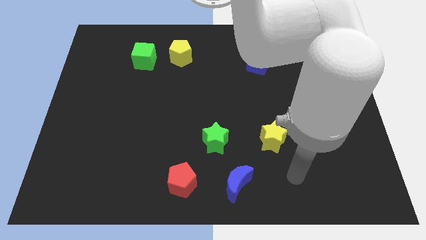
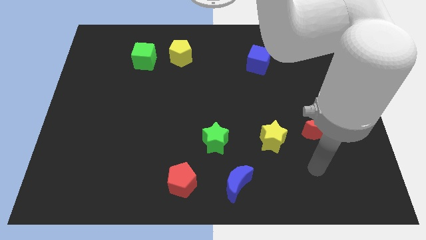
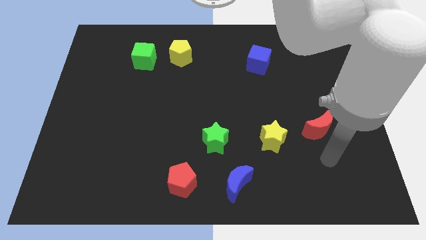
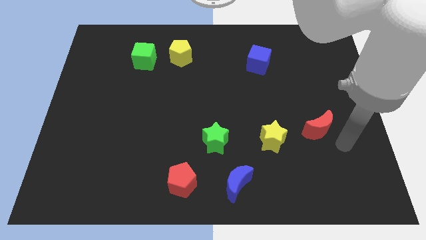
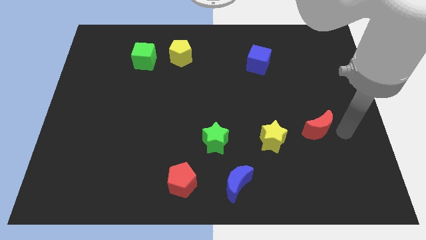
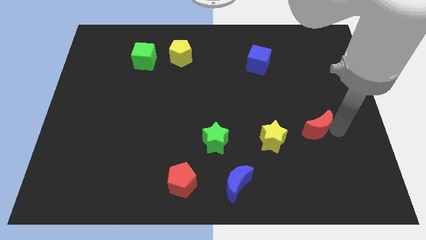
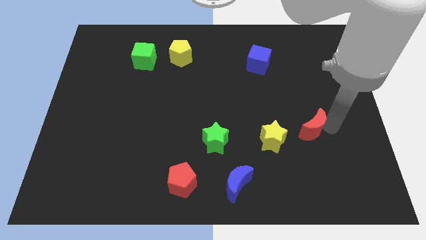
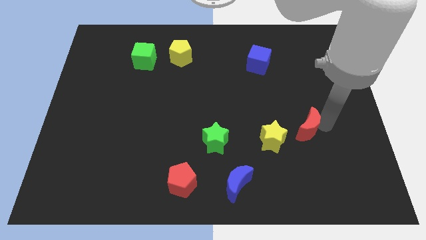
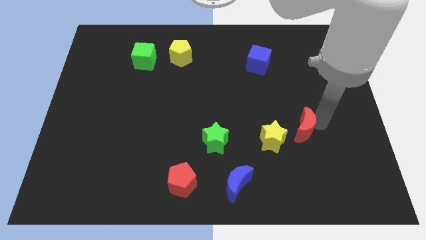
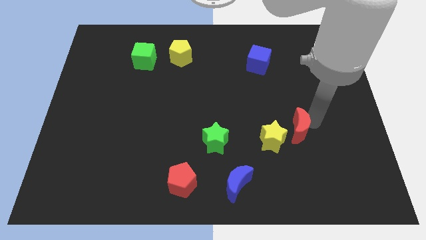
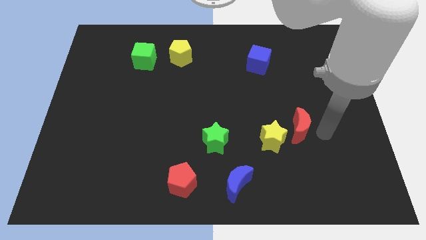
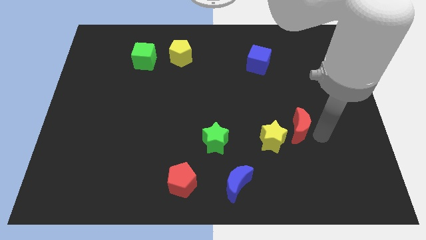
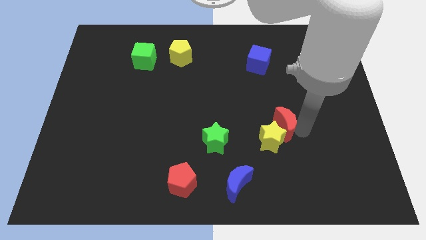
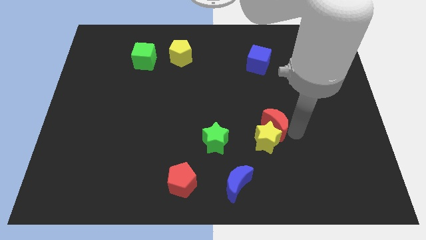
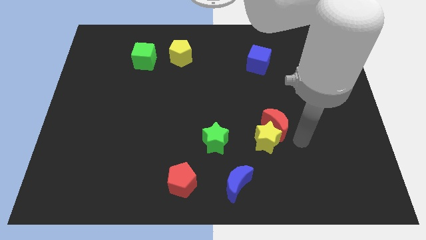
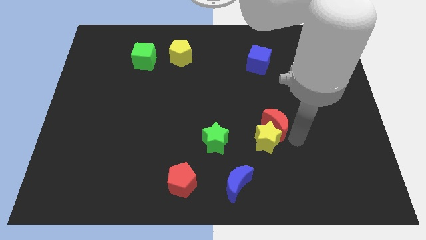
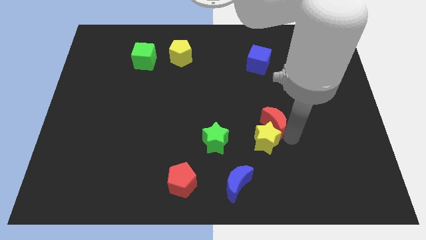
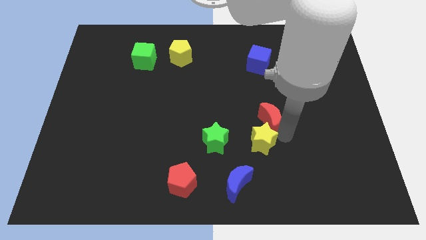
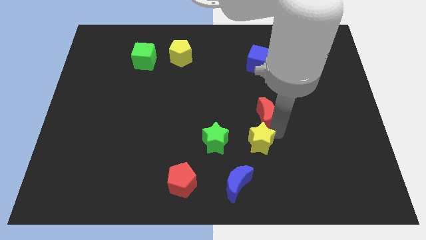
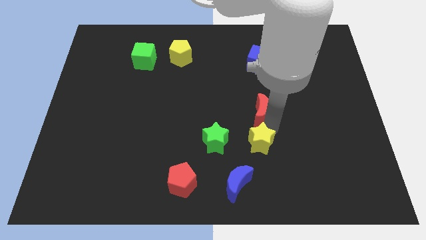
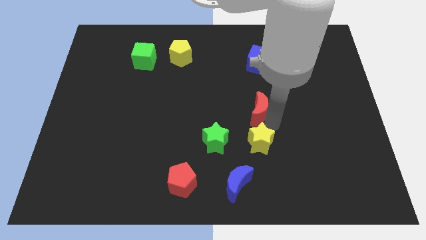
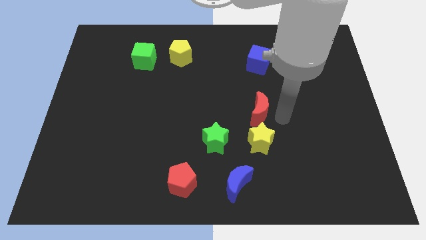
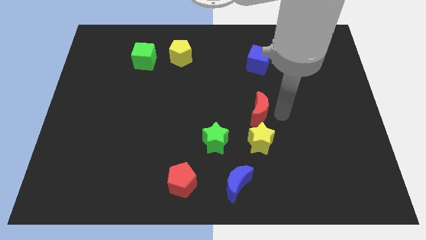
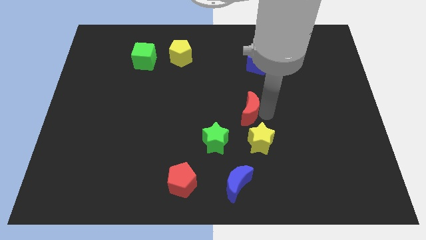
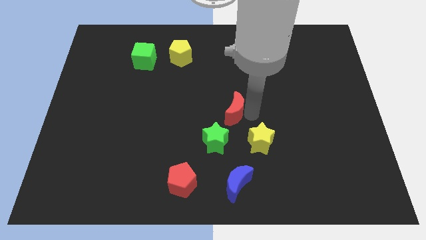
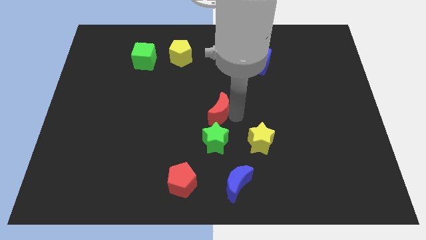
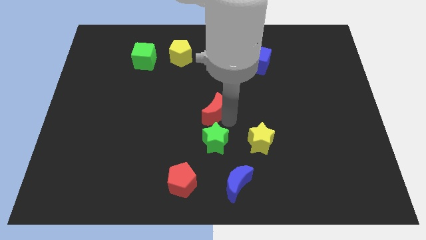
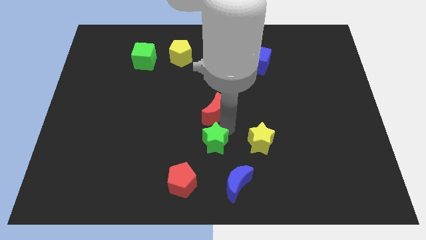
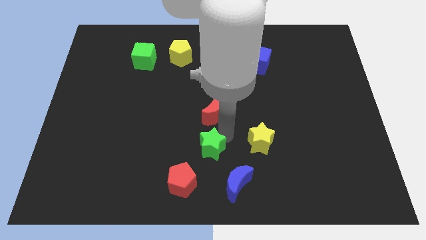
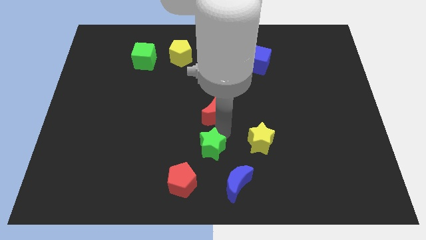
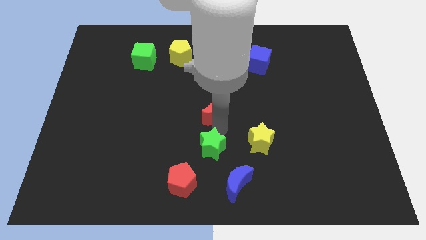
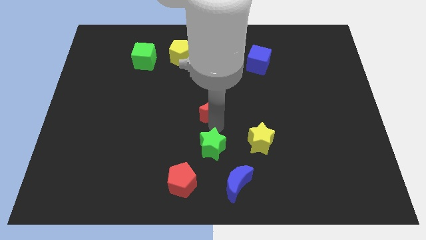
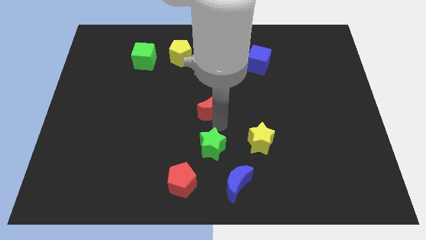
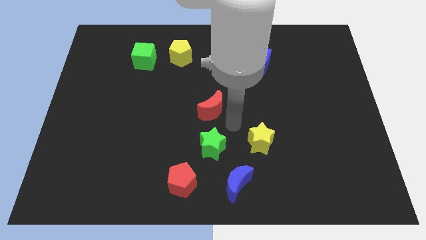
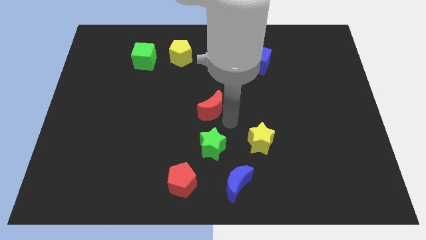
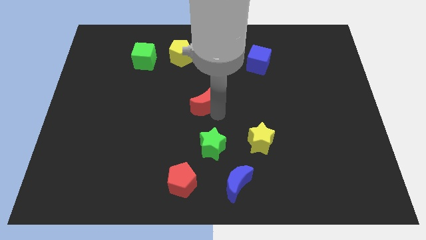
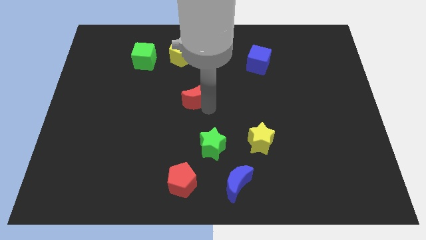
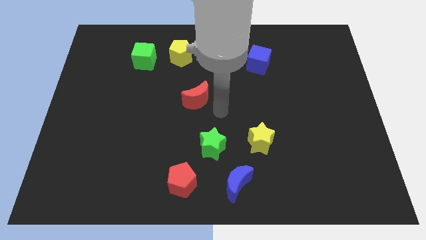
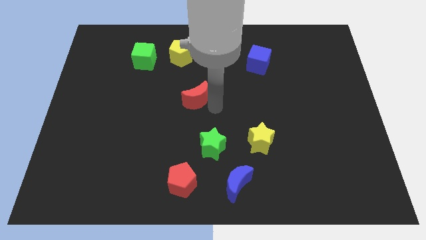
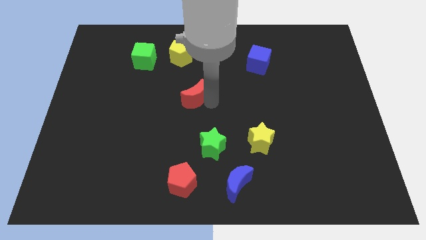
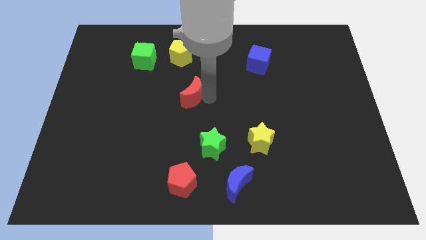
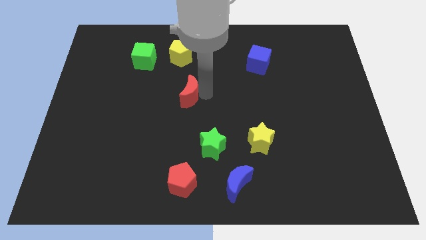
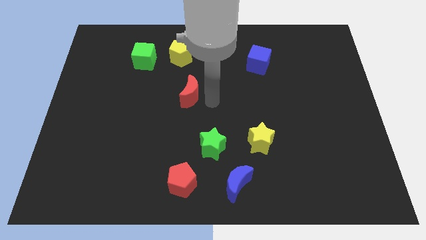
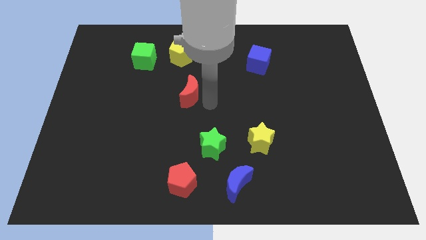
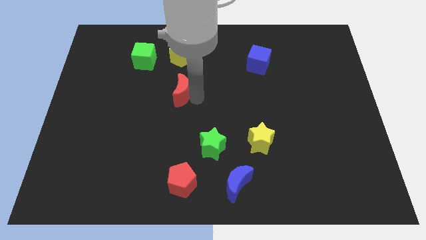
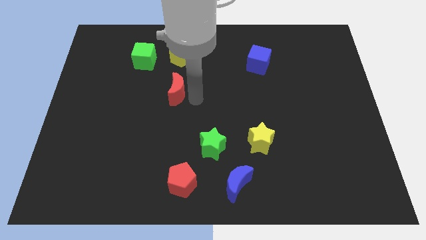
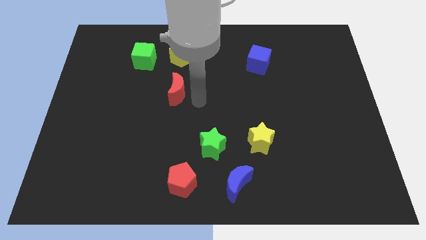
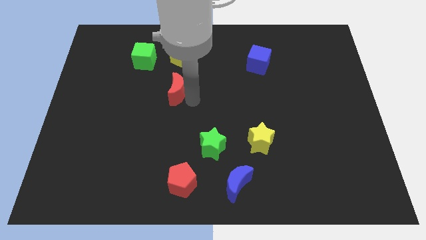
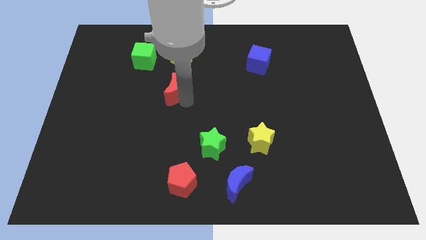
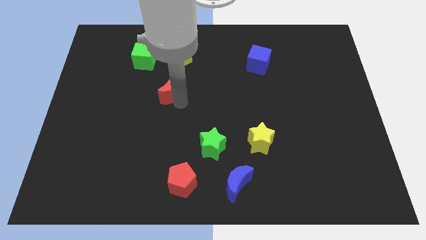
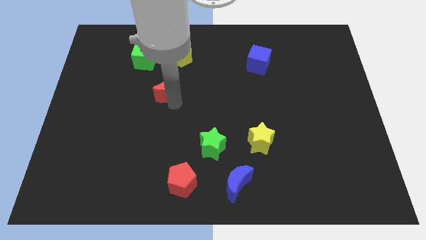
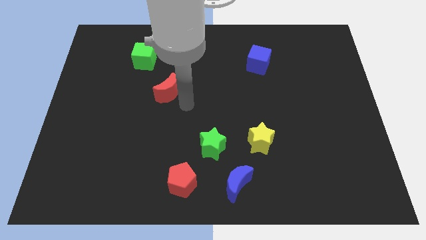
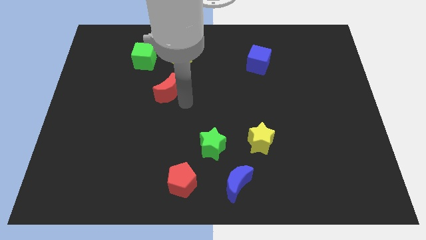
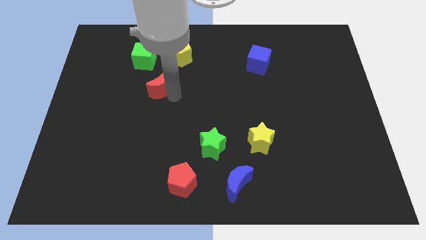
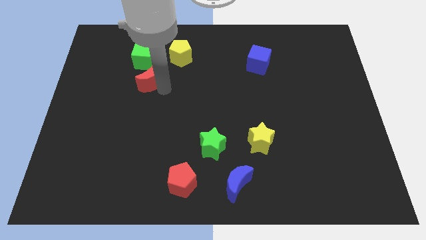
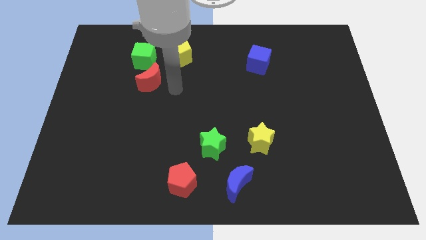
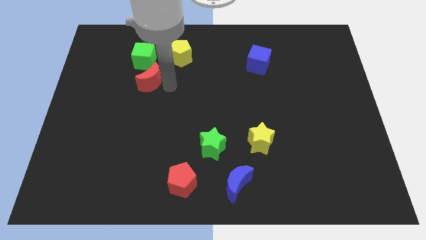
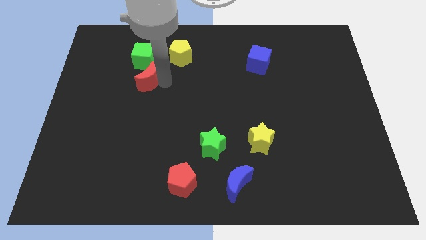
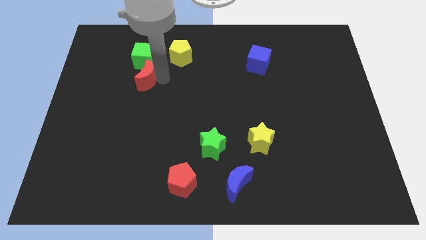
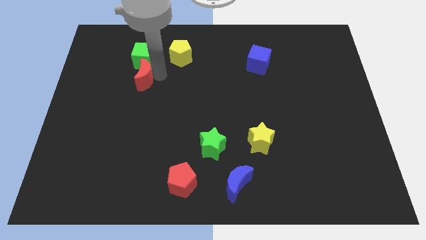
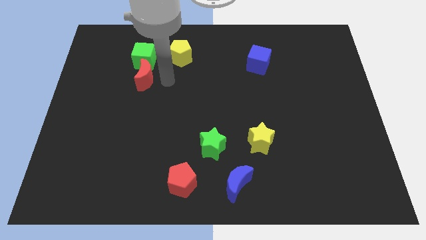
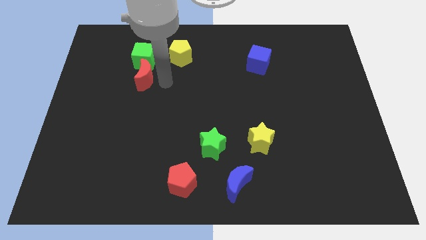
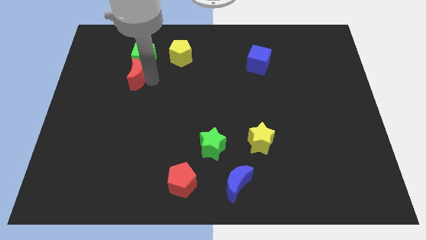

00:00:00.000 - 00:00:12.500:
push the red moon to the bottom left side of the green cube

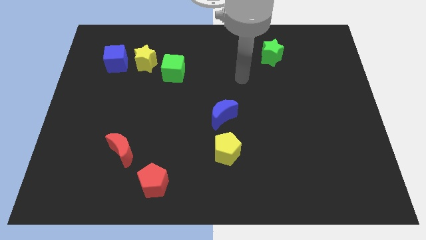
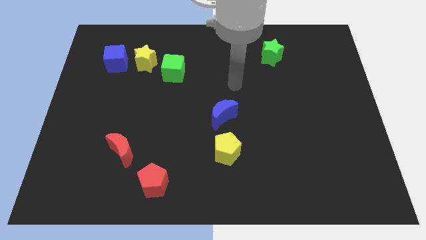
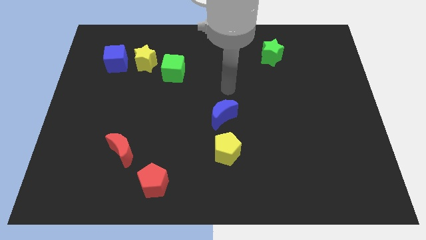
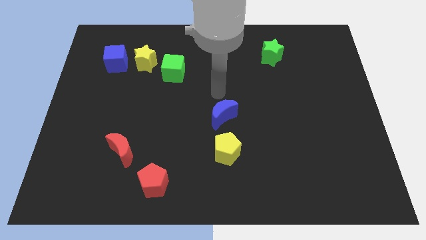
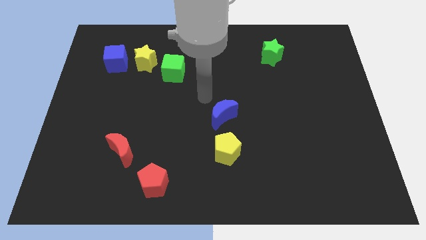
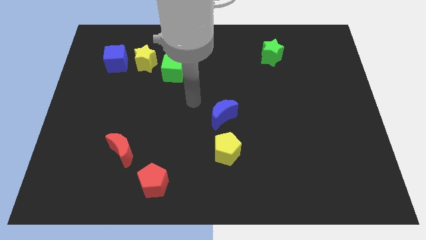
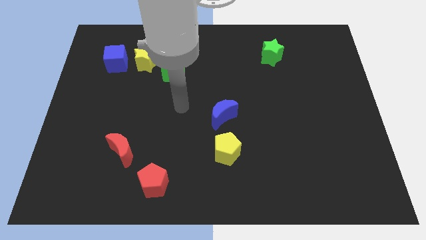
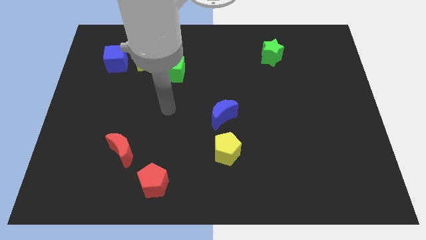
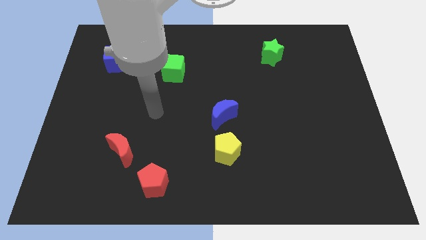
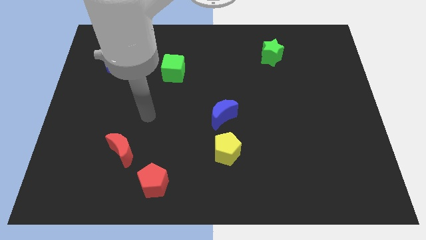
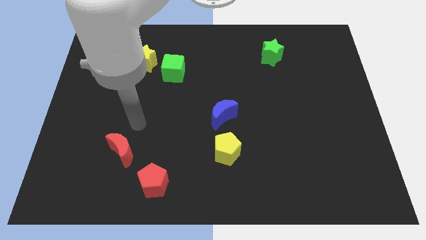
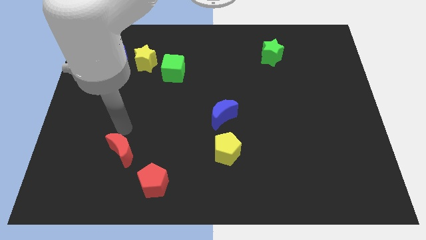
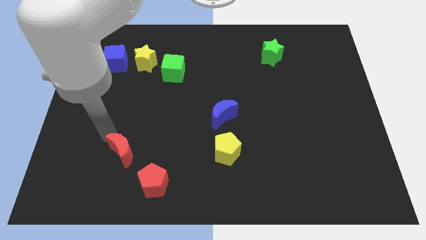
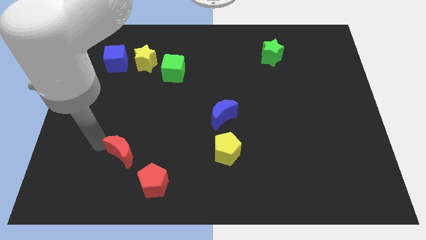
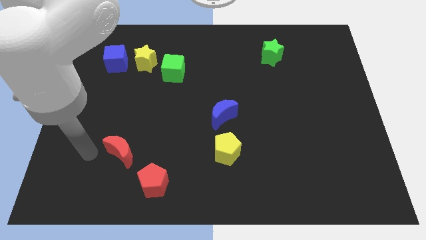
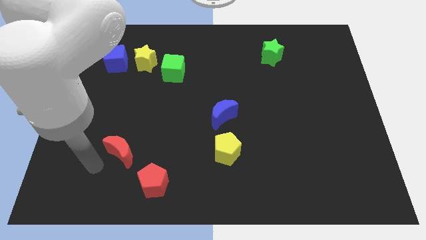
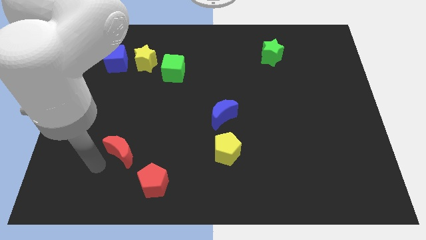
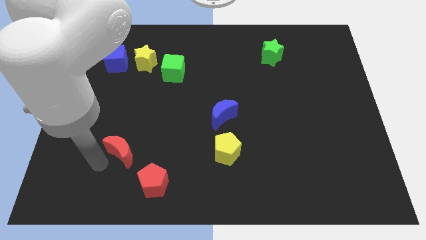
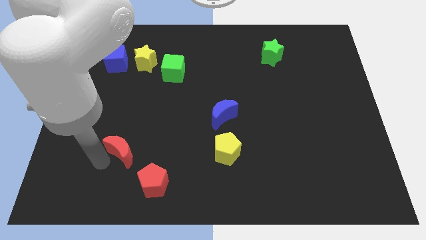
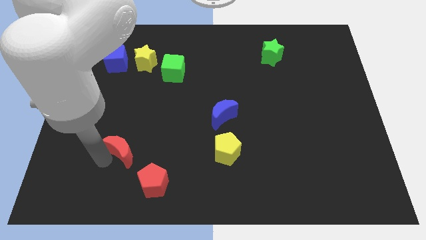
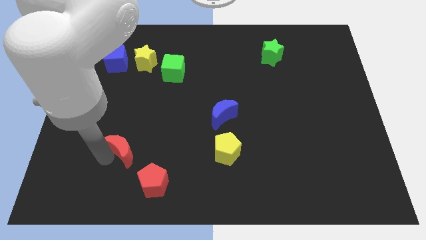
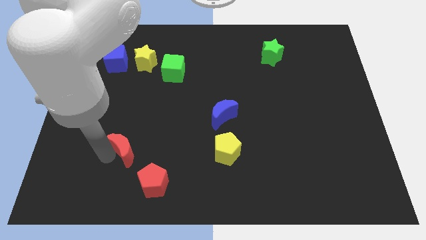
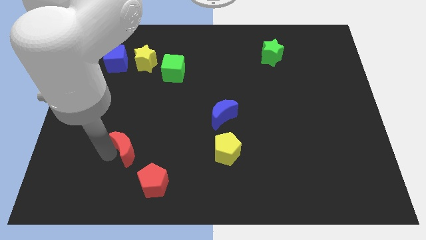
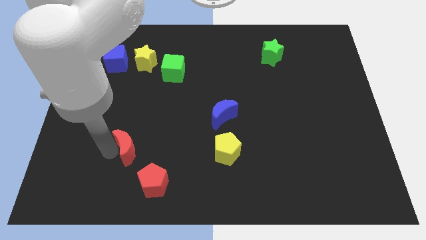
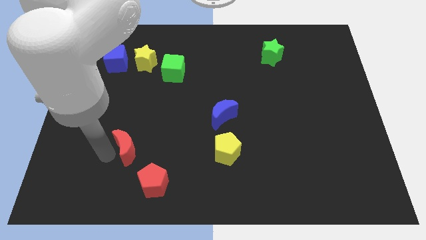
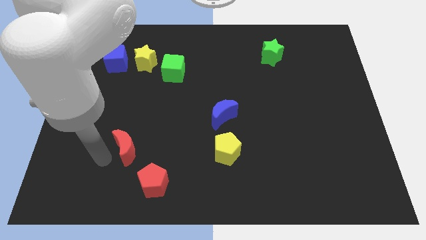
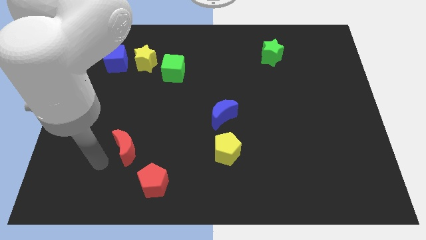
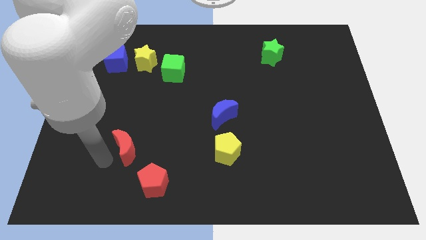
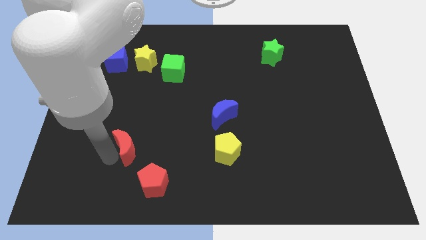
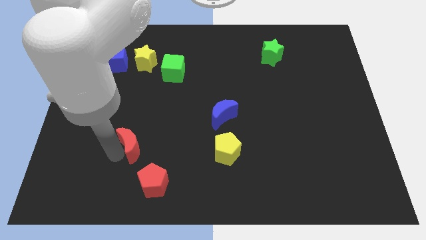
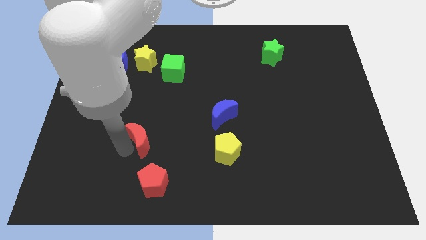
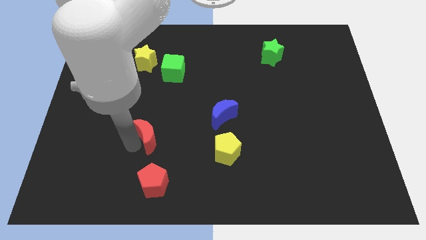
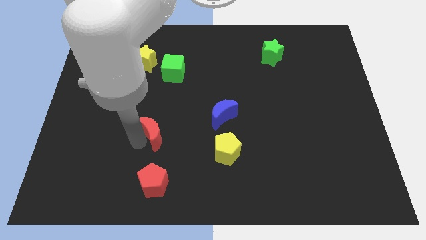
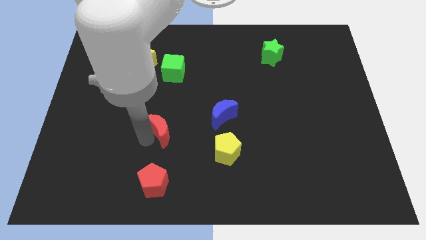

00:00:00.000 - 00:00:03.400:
put the red moon left of the blue moon
